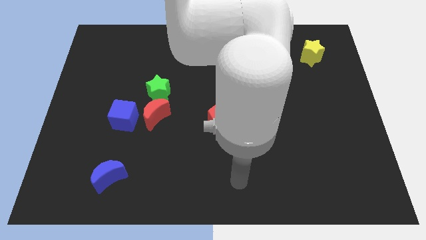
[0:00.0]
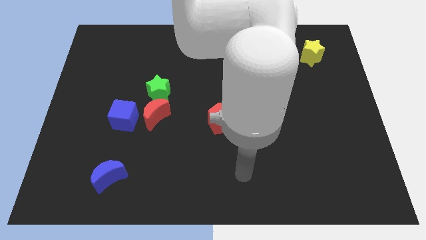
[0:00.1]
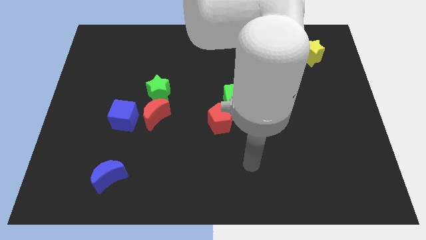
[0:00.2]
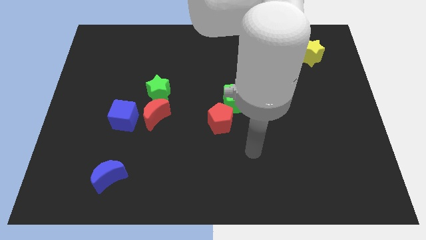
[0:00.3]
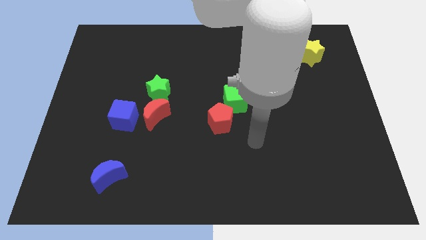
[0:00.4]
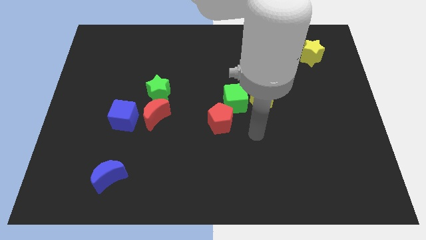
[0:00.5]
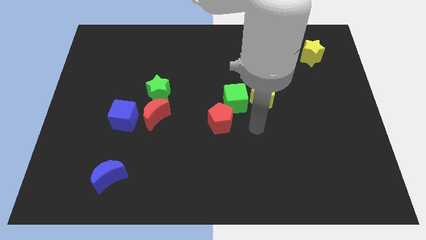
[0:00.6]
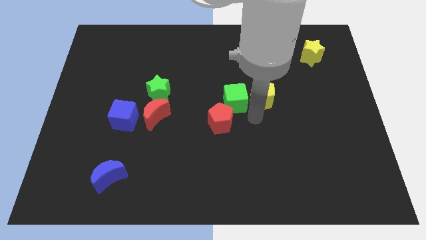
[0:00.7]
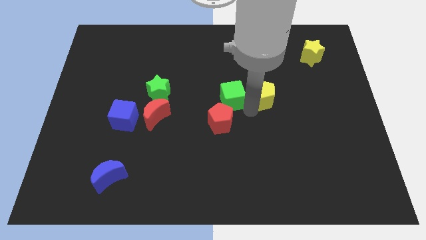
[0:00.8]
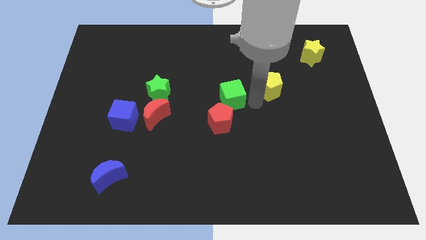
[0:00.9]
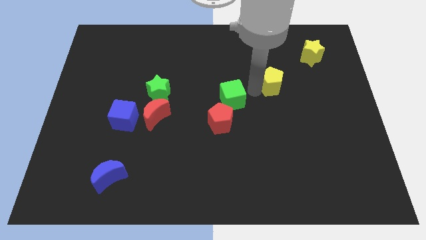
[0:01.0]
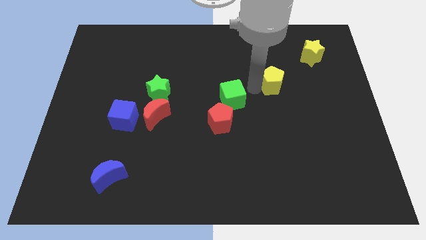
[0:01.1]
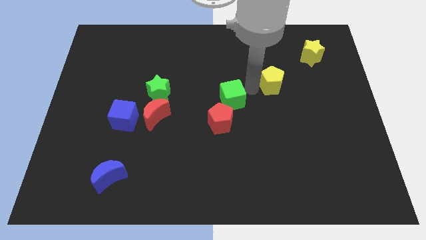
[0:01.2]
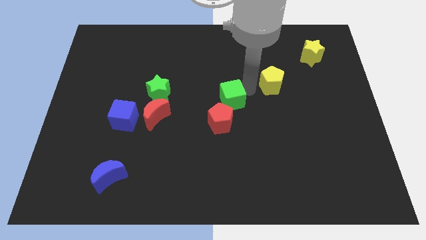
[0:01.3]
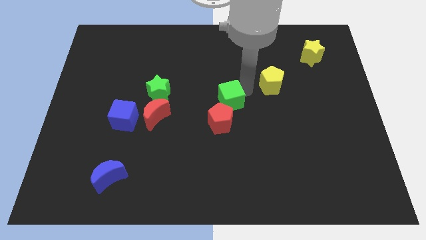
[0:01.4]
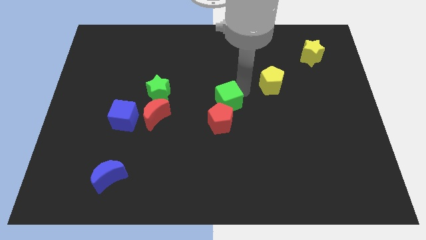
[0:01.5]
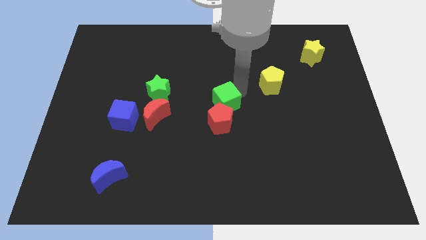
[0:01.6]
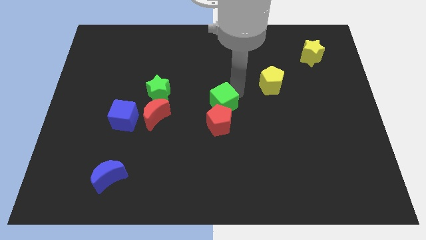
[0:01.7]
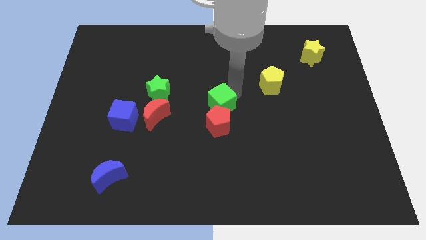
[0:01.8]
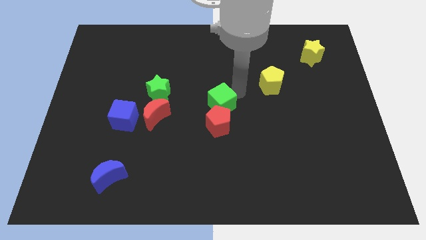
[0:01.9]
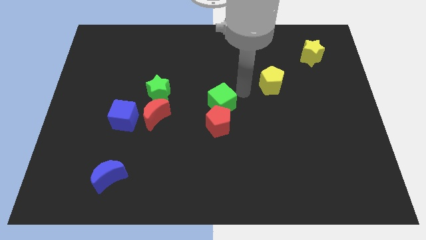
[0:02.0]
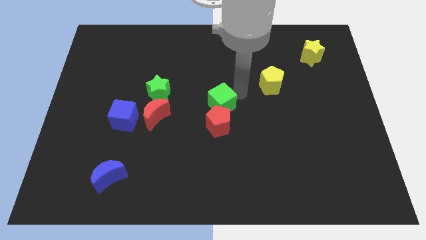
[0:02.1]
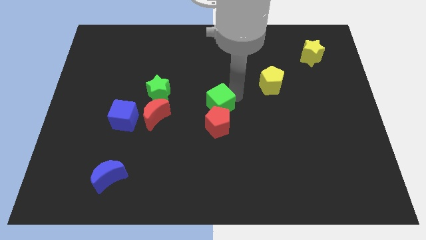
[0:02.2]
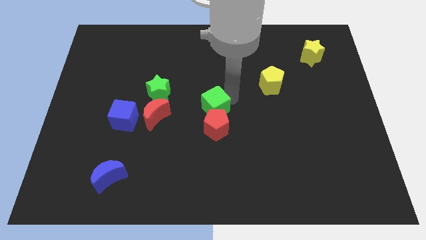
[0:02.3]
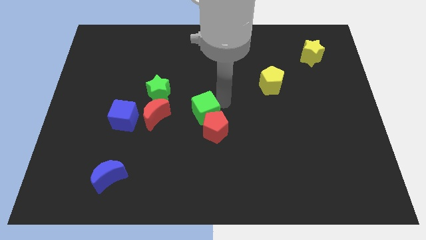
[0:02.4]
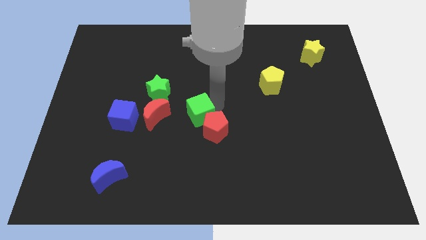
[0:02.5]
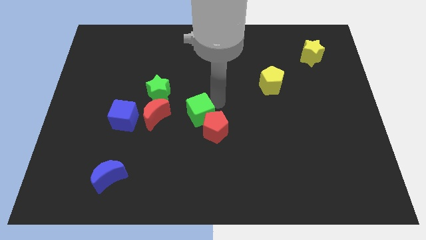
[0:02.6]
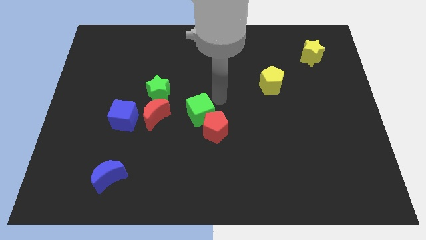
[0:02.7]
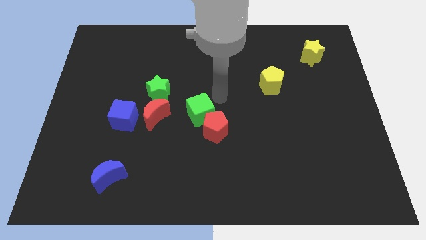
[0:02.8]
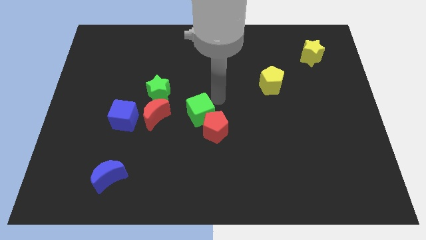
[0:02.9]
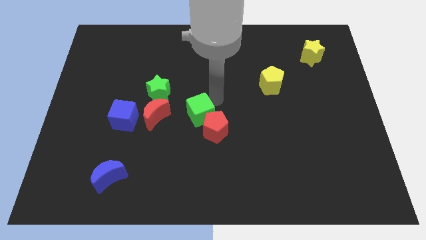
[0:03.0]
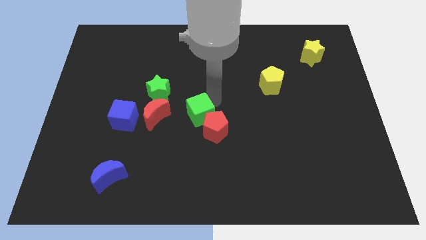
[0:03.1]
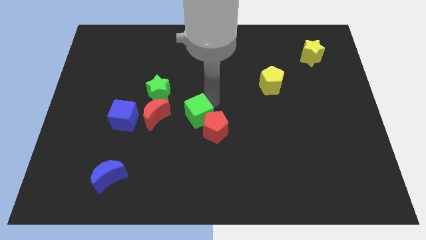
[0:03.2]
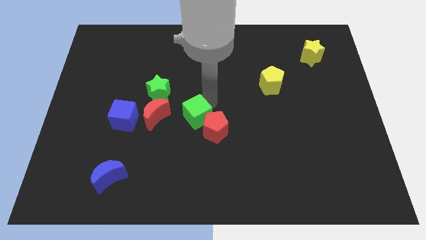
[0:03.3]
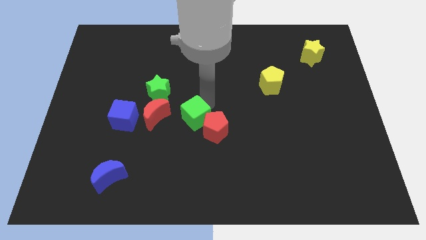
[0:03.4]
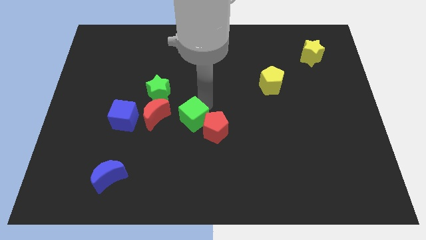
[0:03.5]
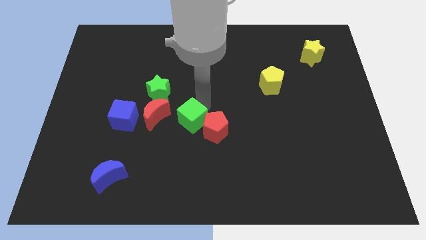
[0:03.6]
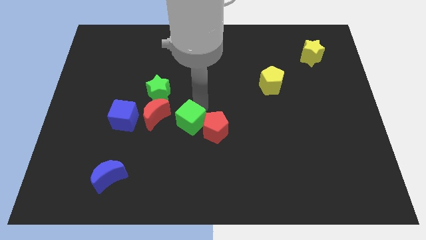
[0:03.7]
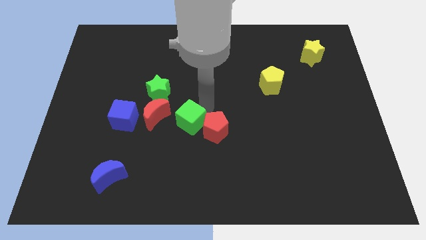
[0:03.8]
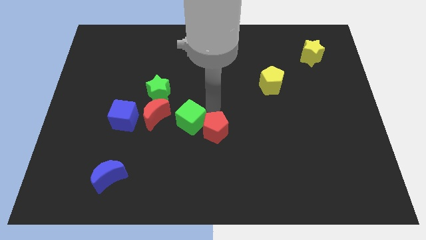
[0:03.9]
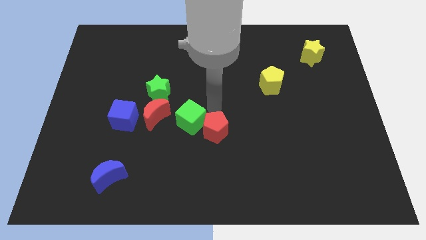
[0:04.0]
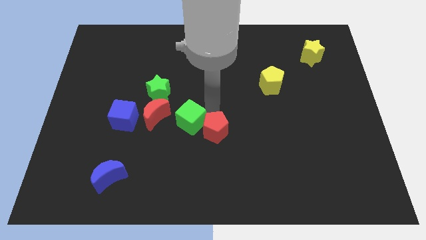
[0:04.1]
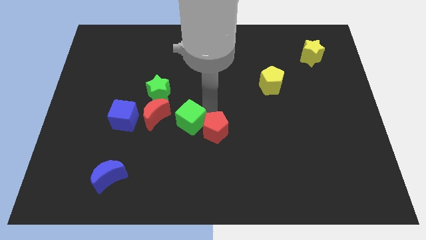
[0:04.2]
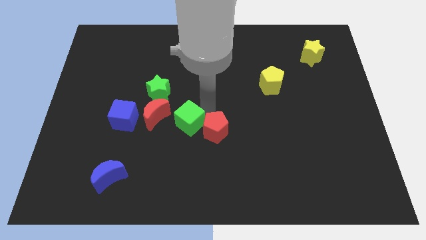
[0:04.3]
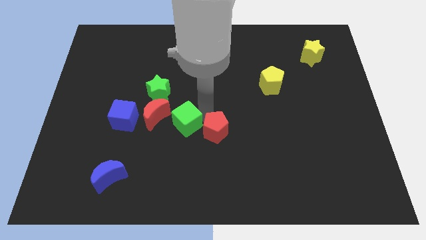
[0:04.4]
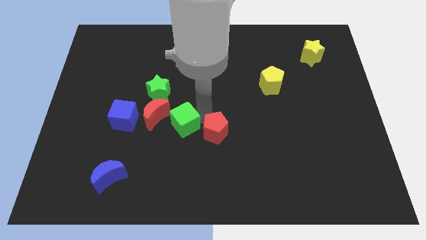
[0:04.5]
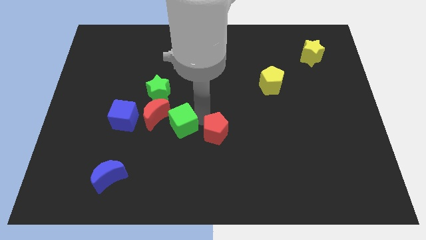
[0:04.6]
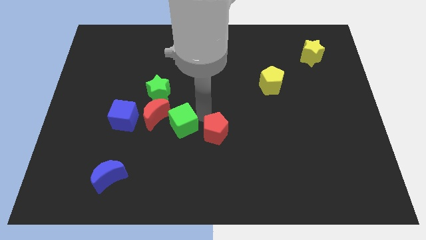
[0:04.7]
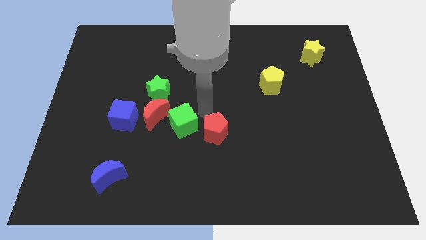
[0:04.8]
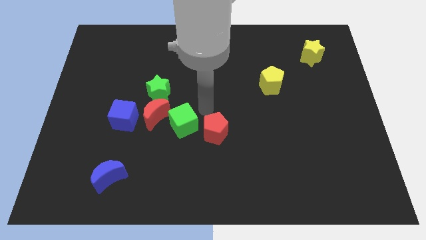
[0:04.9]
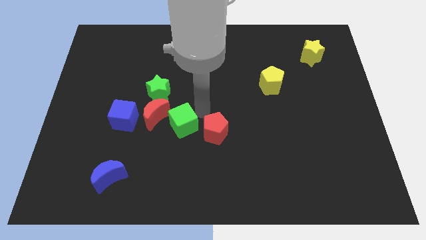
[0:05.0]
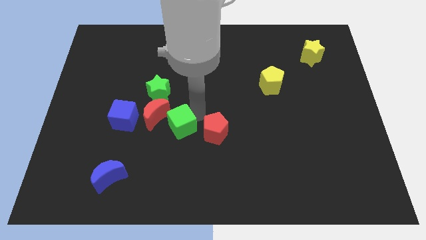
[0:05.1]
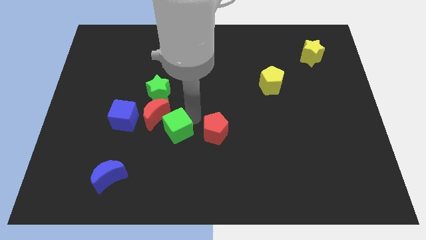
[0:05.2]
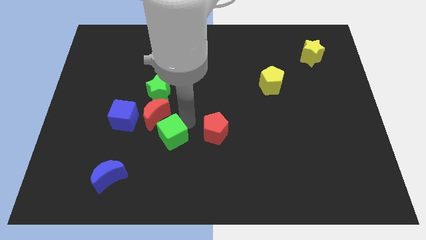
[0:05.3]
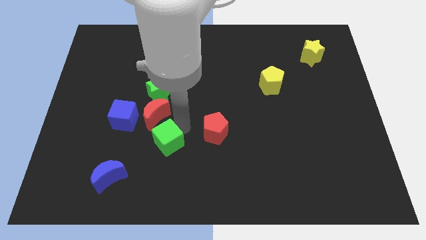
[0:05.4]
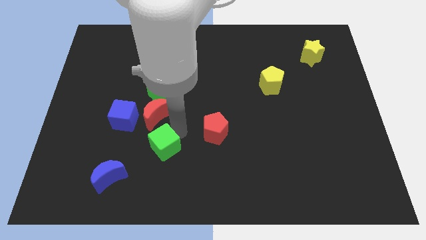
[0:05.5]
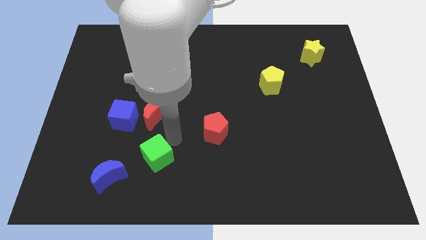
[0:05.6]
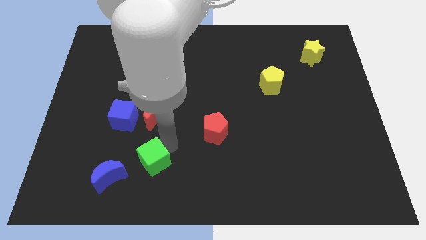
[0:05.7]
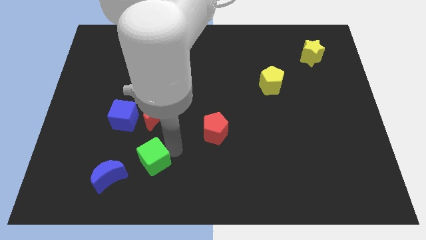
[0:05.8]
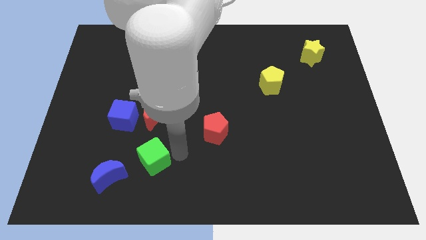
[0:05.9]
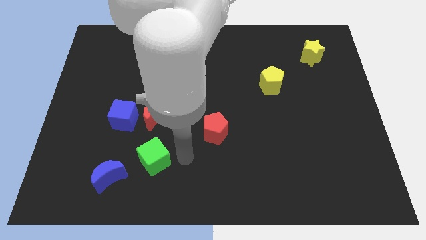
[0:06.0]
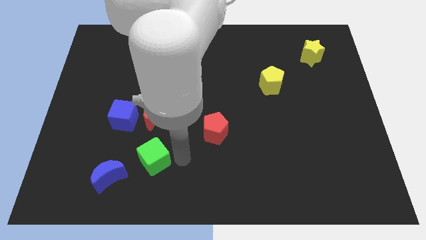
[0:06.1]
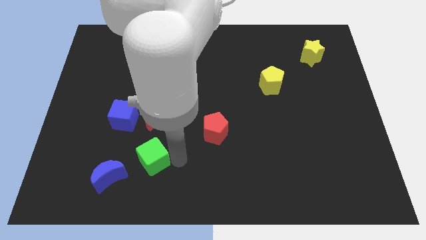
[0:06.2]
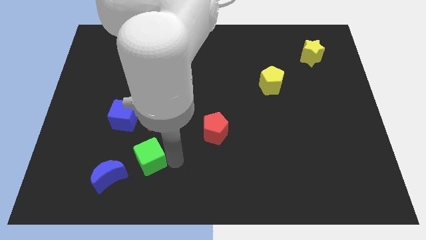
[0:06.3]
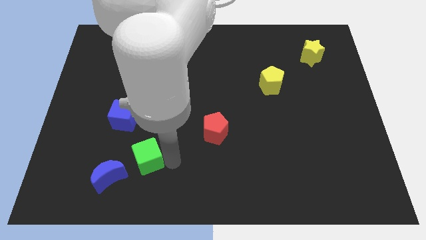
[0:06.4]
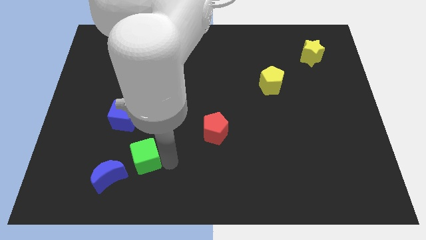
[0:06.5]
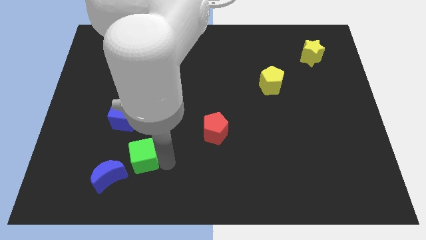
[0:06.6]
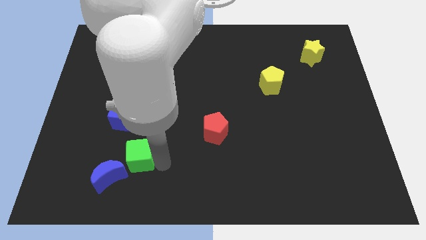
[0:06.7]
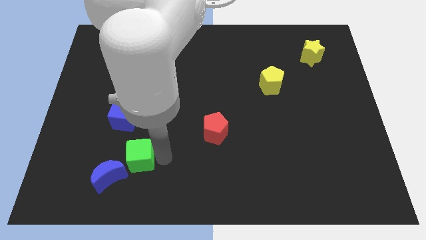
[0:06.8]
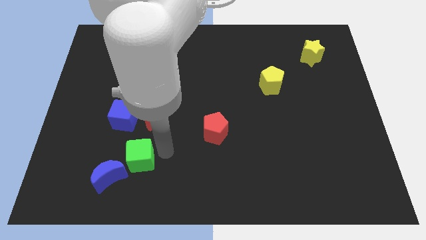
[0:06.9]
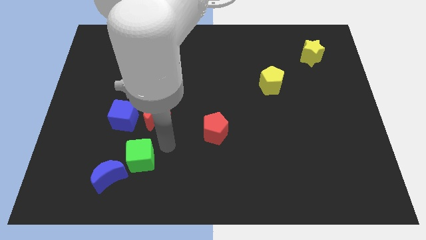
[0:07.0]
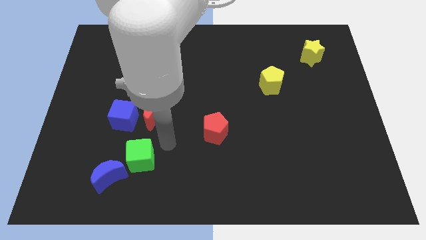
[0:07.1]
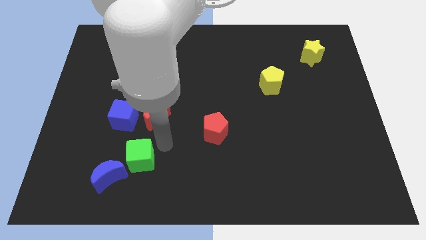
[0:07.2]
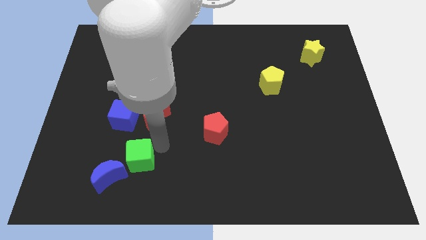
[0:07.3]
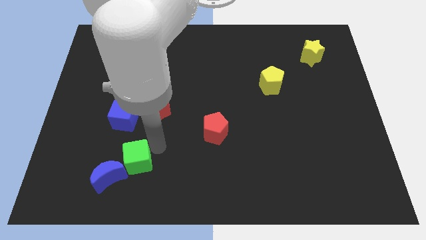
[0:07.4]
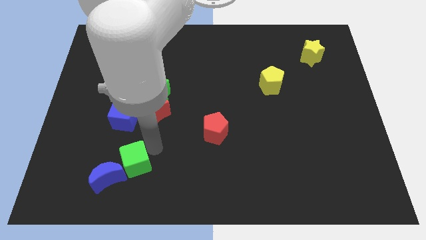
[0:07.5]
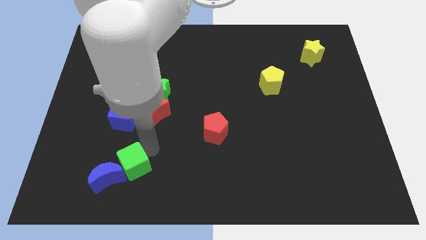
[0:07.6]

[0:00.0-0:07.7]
put the green cube next to the blue moon
